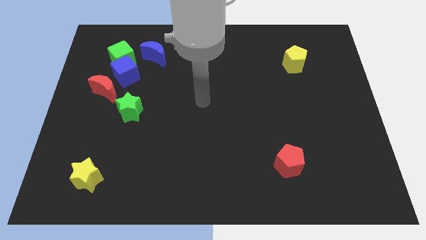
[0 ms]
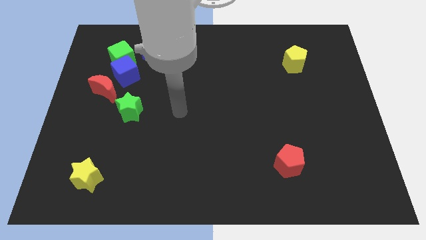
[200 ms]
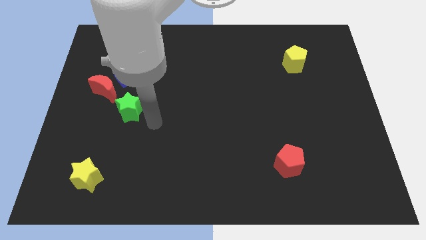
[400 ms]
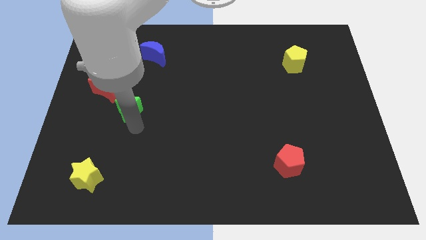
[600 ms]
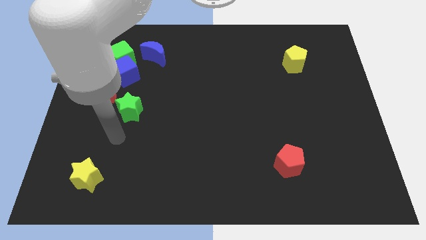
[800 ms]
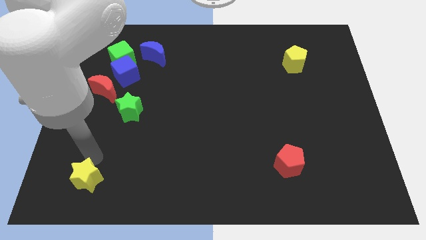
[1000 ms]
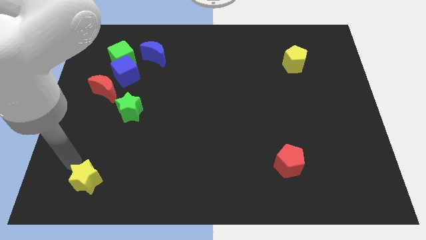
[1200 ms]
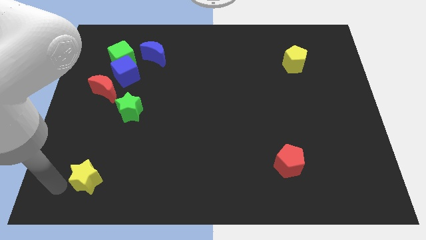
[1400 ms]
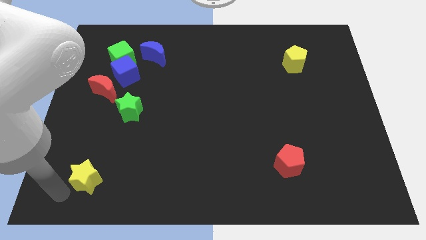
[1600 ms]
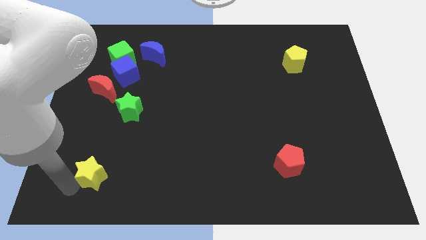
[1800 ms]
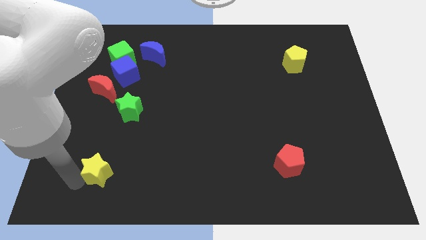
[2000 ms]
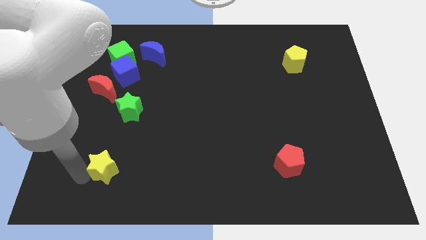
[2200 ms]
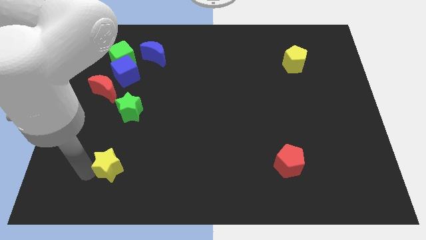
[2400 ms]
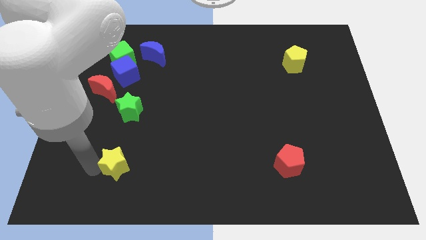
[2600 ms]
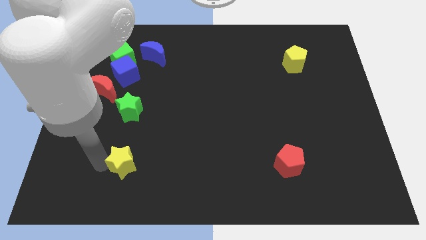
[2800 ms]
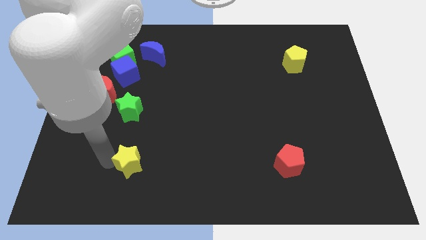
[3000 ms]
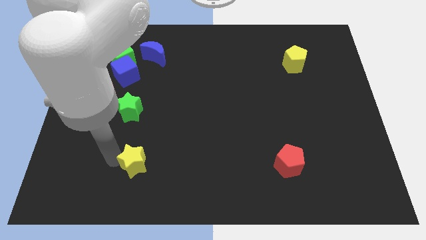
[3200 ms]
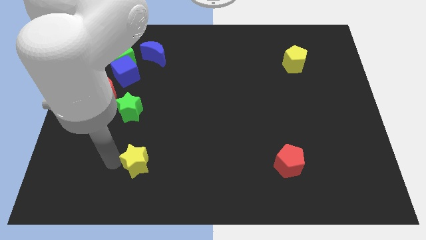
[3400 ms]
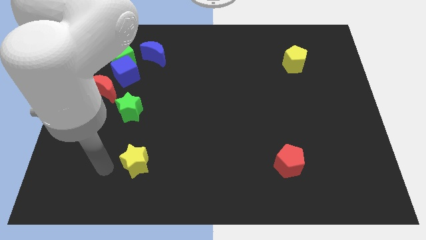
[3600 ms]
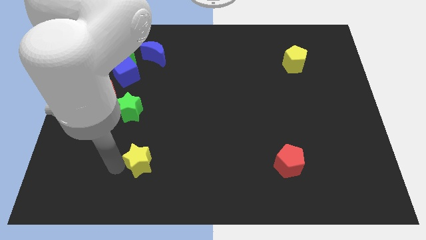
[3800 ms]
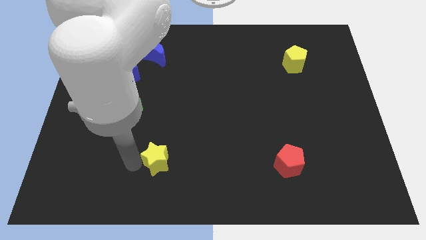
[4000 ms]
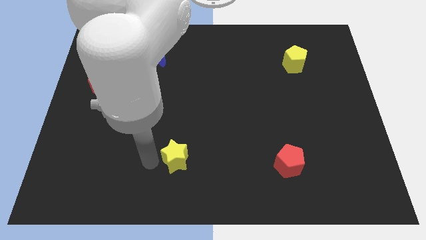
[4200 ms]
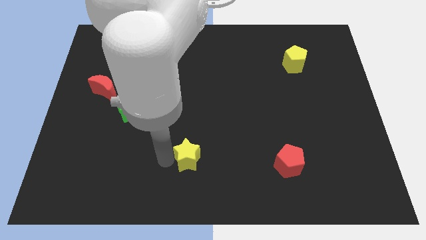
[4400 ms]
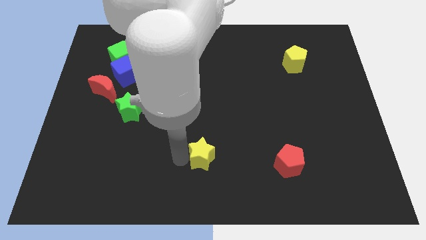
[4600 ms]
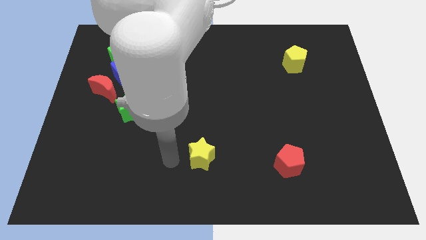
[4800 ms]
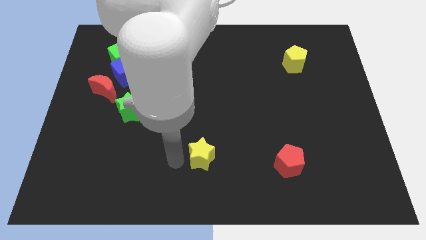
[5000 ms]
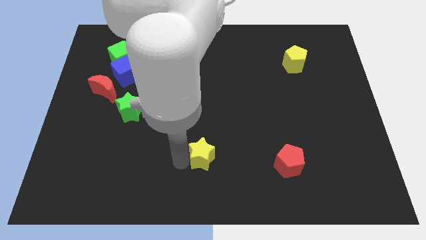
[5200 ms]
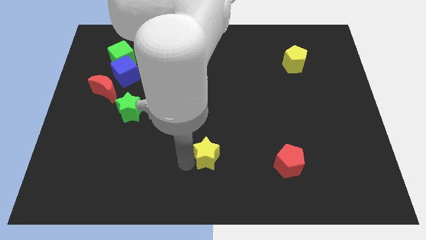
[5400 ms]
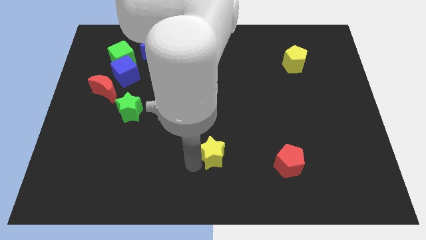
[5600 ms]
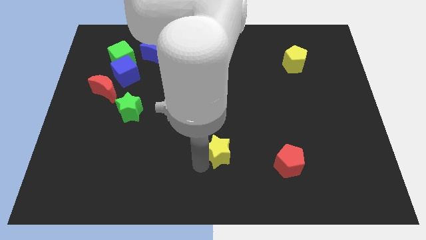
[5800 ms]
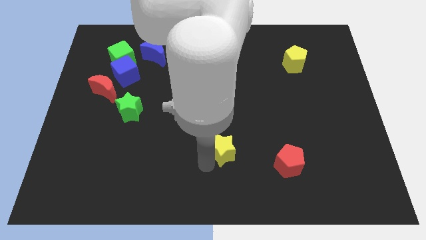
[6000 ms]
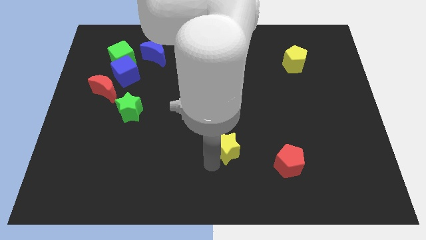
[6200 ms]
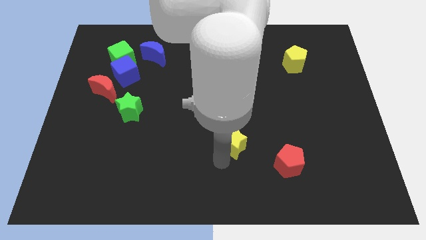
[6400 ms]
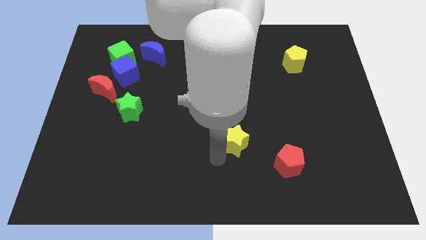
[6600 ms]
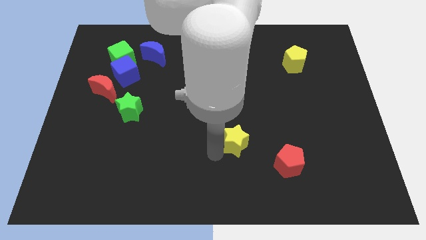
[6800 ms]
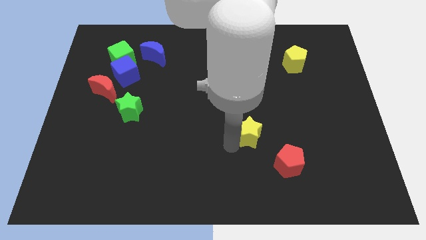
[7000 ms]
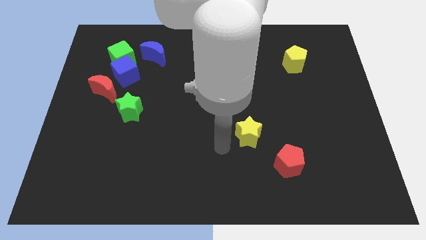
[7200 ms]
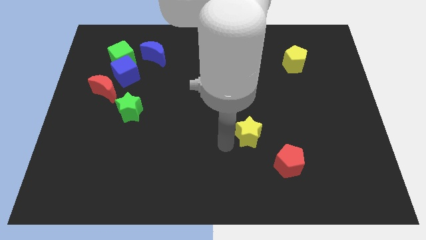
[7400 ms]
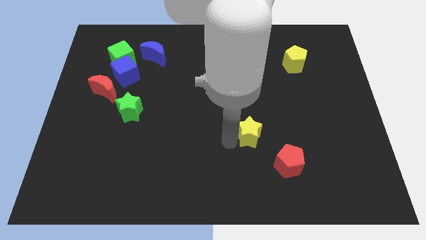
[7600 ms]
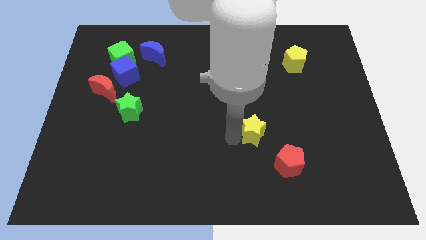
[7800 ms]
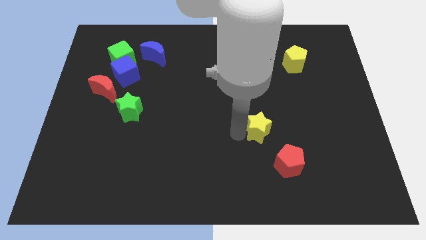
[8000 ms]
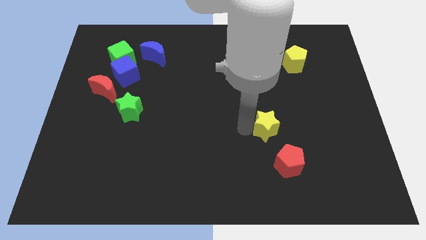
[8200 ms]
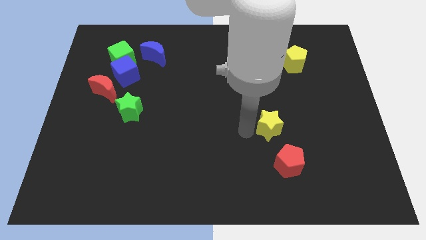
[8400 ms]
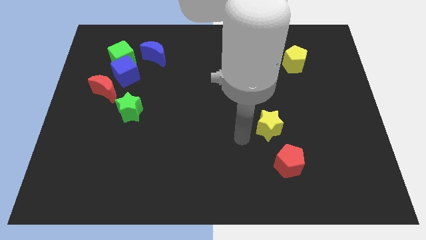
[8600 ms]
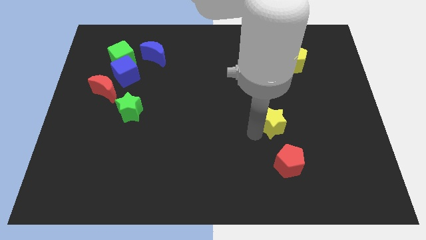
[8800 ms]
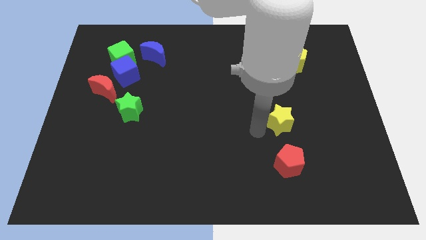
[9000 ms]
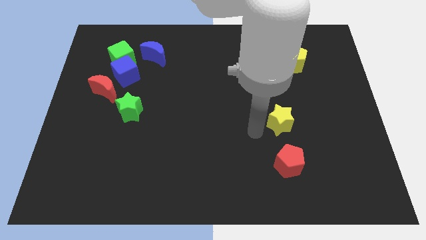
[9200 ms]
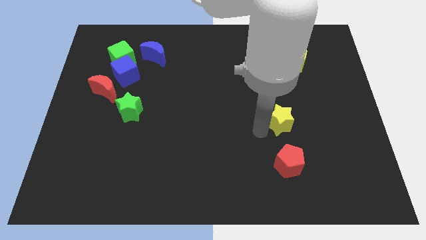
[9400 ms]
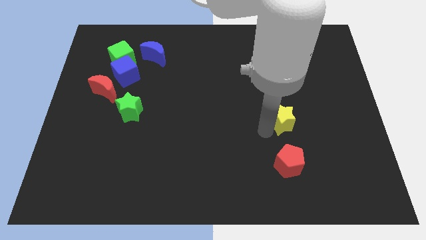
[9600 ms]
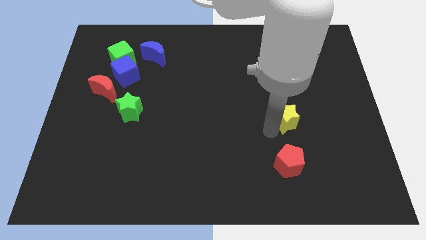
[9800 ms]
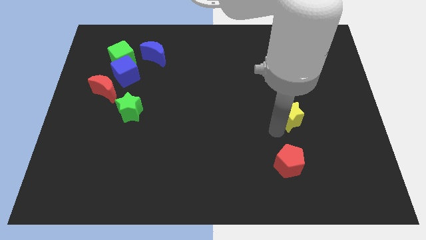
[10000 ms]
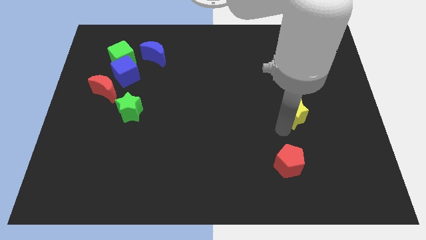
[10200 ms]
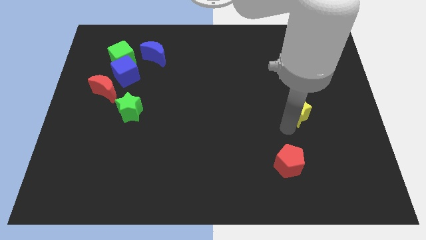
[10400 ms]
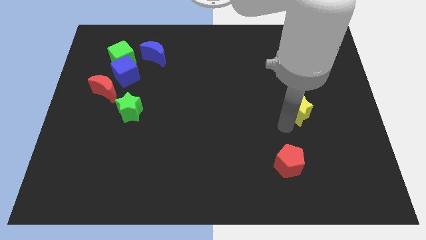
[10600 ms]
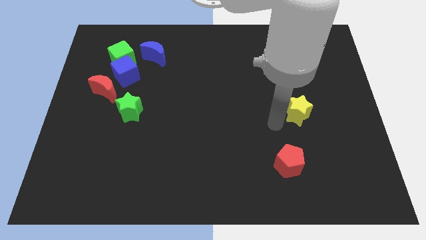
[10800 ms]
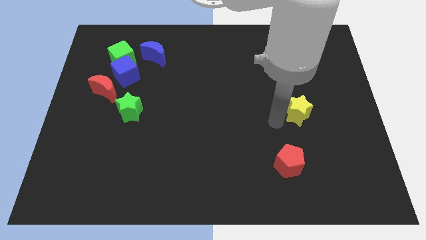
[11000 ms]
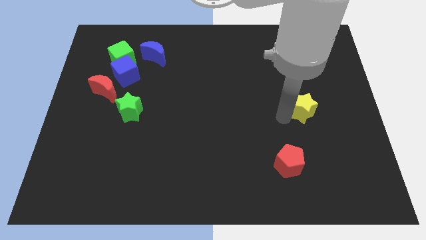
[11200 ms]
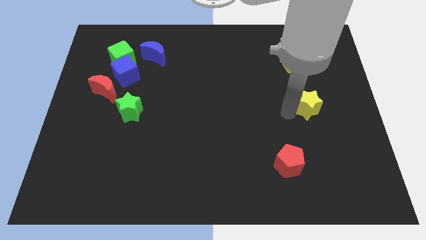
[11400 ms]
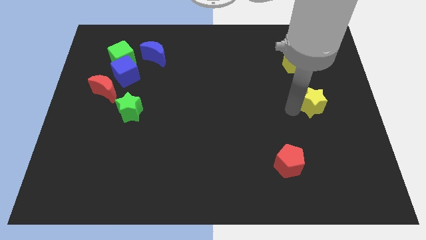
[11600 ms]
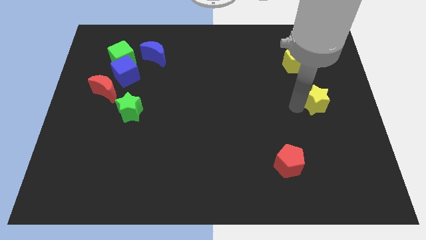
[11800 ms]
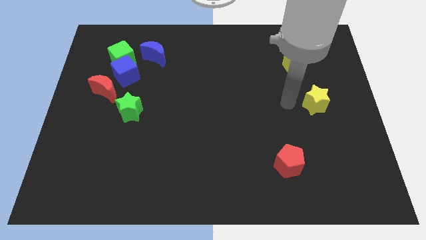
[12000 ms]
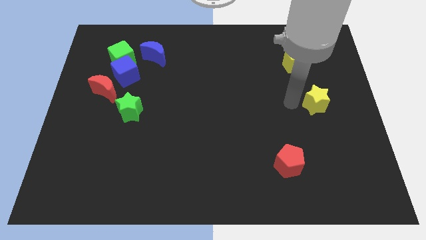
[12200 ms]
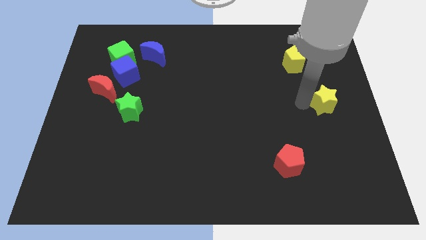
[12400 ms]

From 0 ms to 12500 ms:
push the yellow star to the center right
